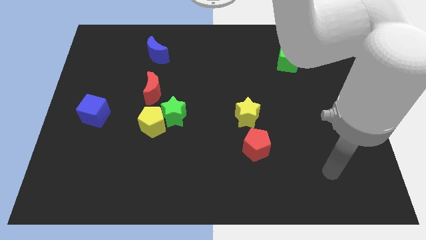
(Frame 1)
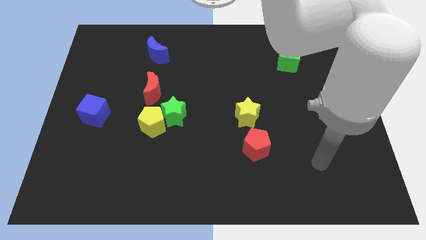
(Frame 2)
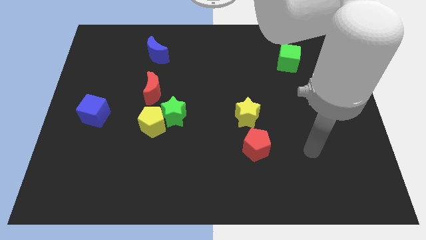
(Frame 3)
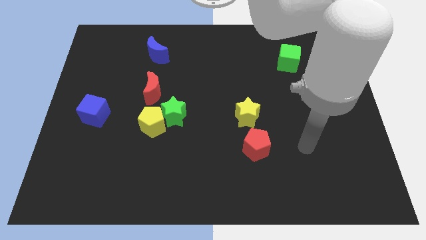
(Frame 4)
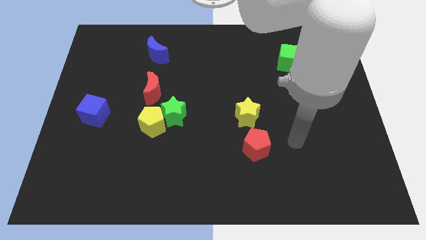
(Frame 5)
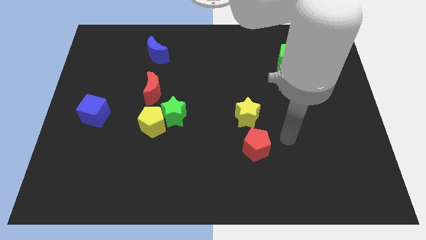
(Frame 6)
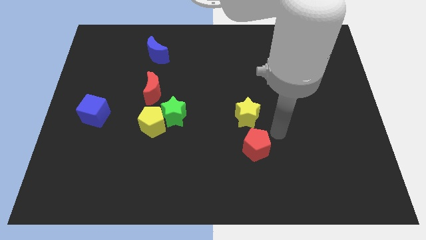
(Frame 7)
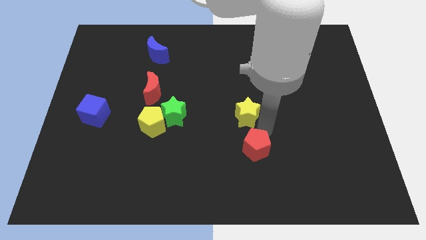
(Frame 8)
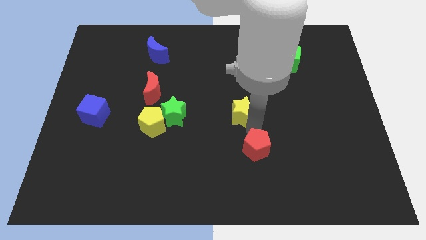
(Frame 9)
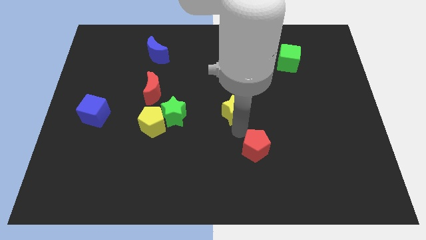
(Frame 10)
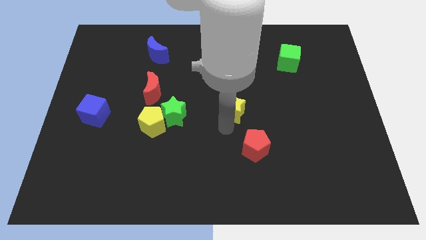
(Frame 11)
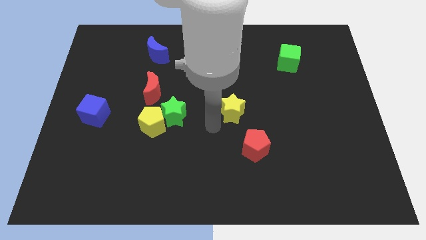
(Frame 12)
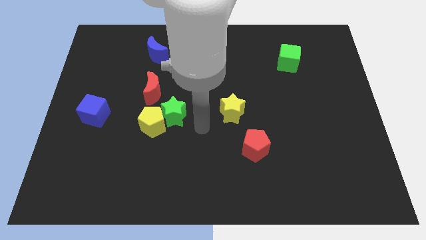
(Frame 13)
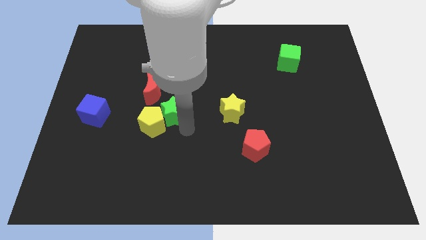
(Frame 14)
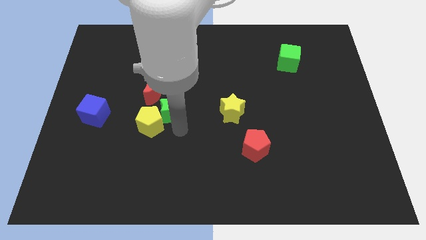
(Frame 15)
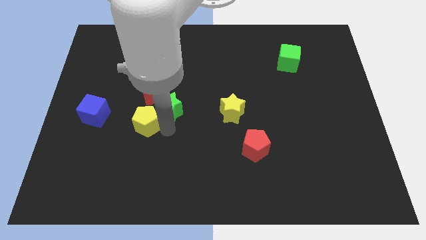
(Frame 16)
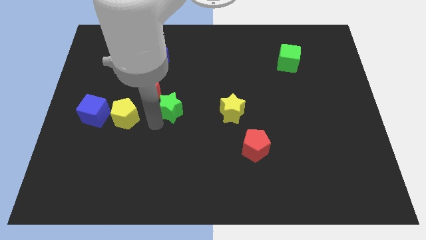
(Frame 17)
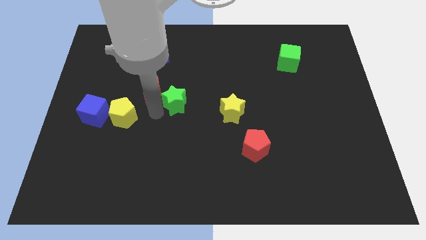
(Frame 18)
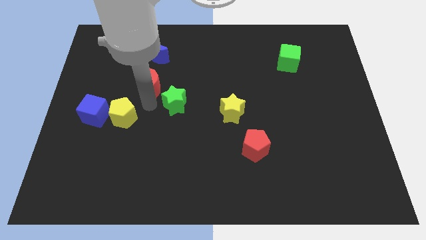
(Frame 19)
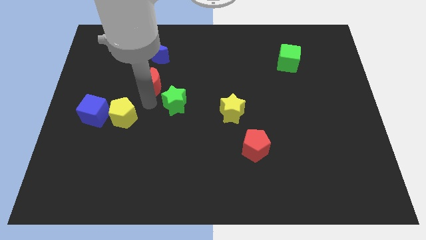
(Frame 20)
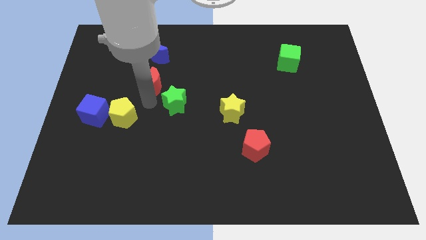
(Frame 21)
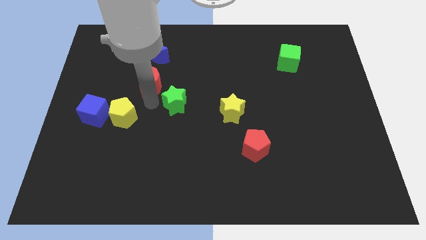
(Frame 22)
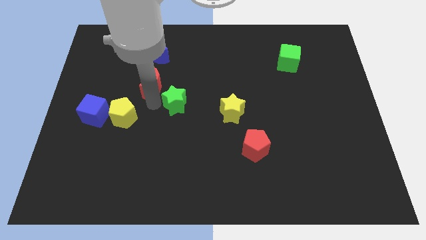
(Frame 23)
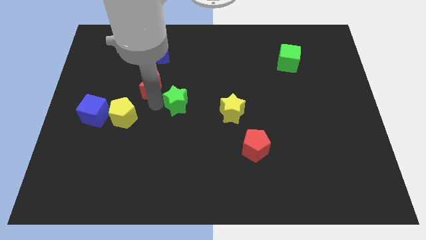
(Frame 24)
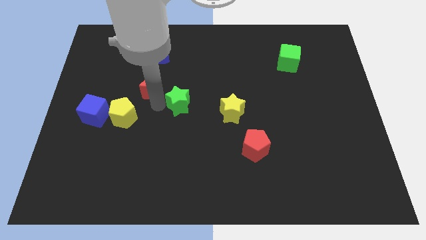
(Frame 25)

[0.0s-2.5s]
pull the green star apart from the yellow pentagon and red moon

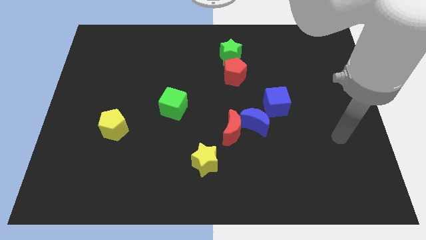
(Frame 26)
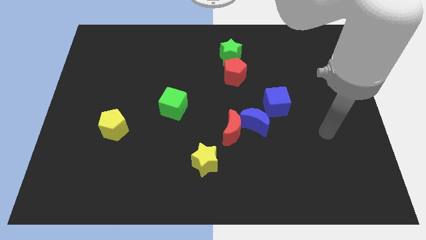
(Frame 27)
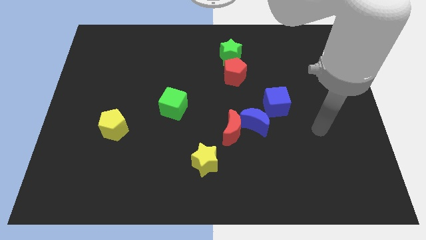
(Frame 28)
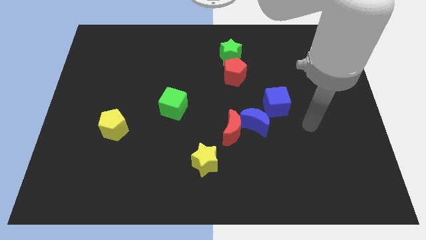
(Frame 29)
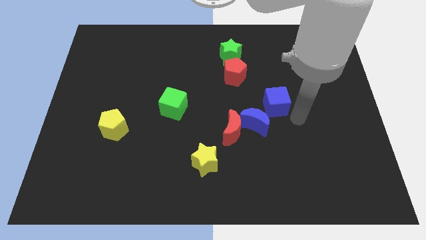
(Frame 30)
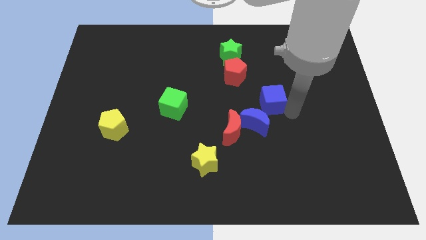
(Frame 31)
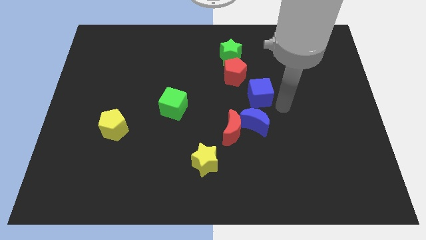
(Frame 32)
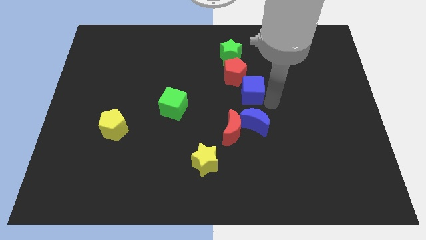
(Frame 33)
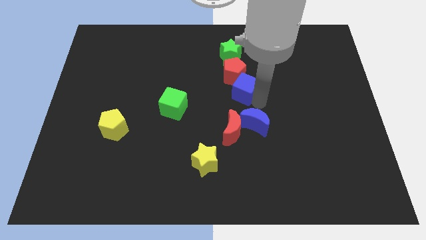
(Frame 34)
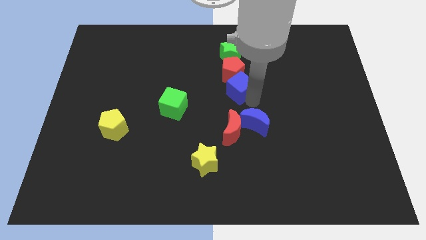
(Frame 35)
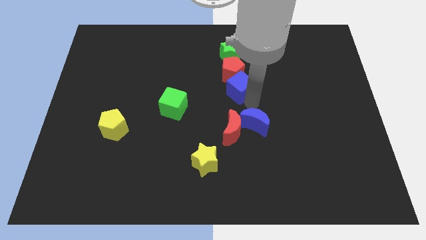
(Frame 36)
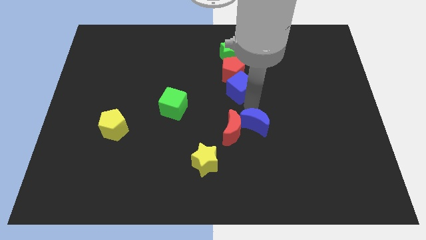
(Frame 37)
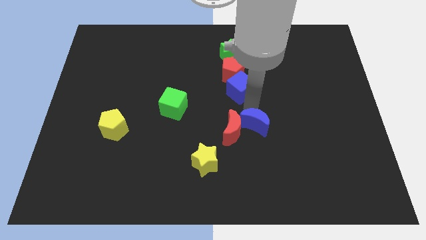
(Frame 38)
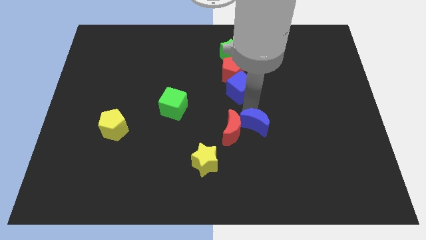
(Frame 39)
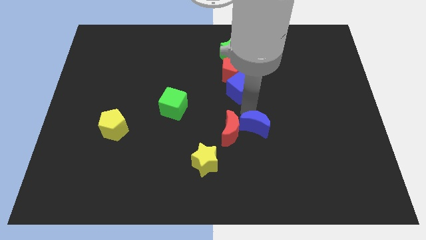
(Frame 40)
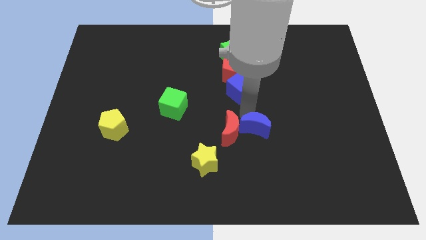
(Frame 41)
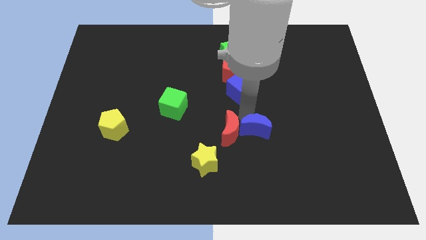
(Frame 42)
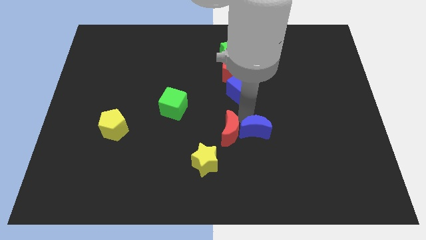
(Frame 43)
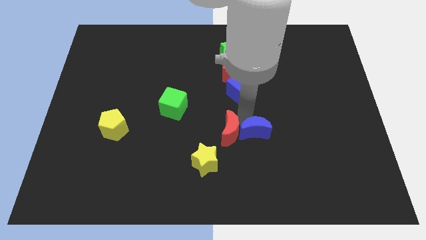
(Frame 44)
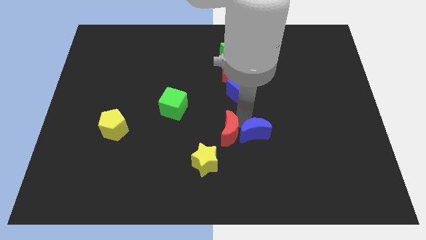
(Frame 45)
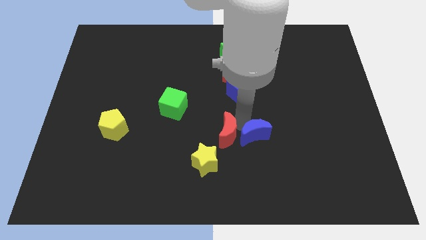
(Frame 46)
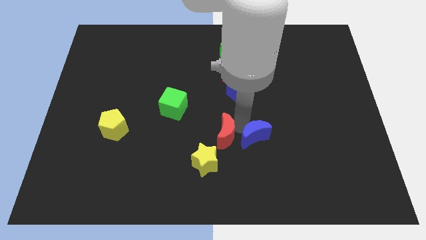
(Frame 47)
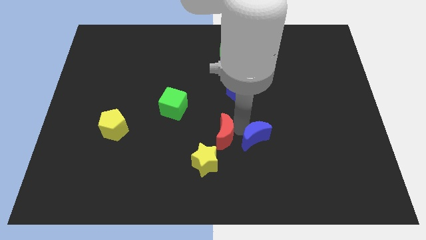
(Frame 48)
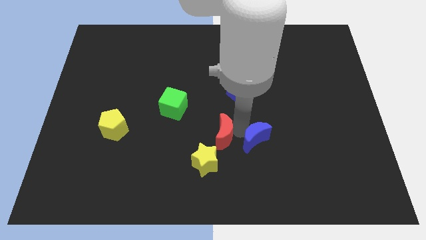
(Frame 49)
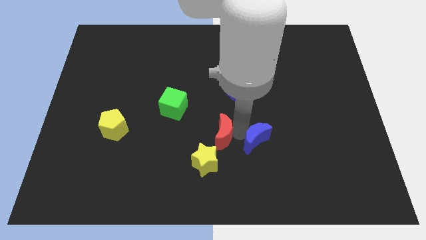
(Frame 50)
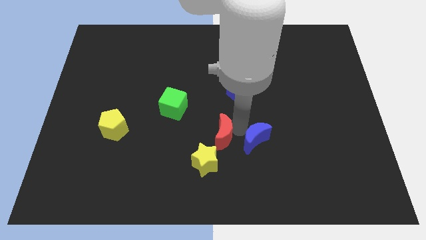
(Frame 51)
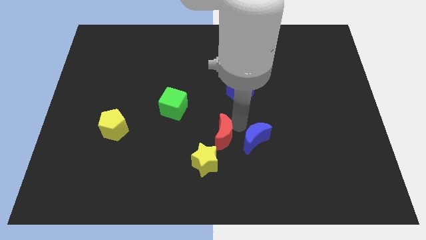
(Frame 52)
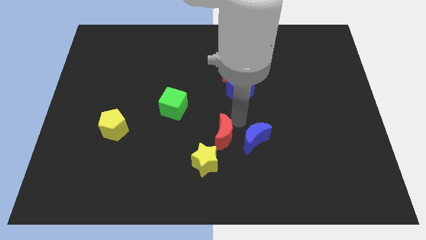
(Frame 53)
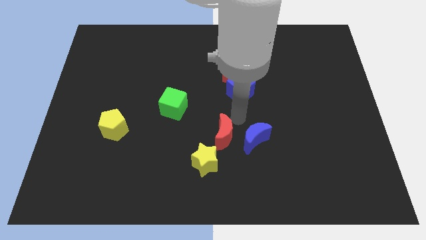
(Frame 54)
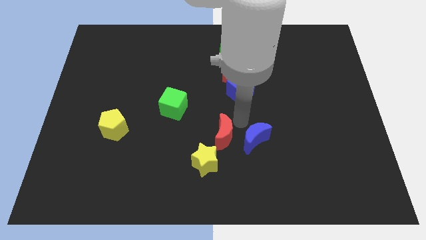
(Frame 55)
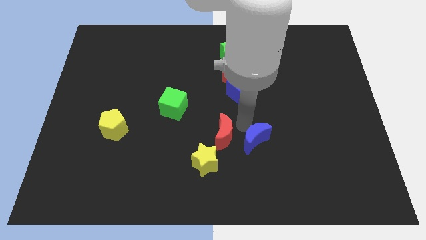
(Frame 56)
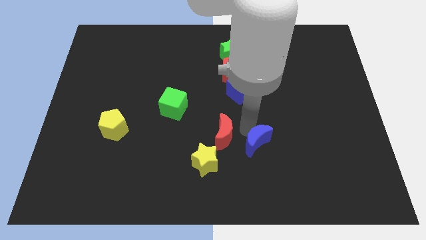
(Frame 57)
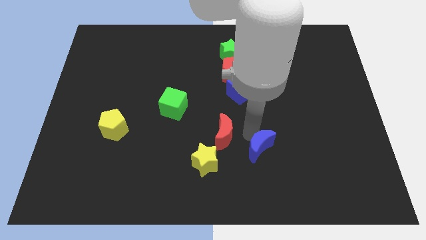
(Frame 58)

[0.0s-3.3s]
pull the blue moon apart from the red moon and blue cube

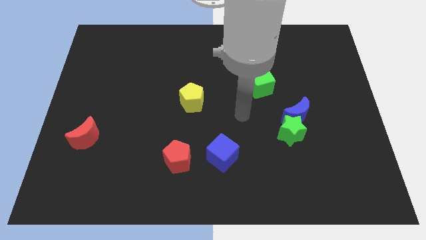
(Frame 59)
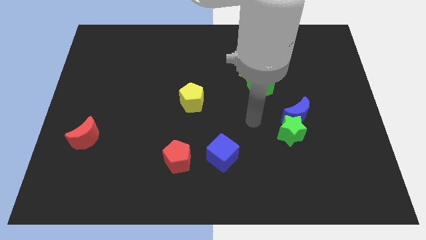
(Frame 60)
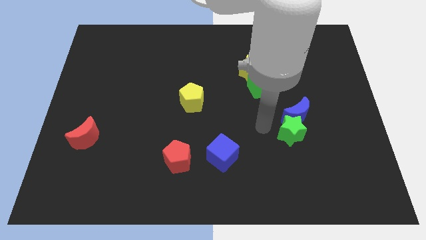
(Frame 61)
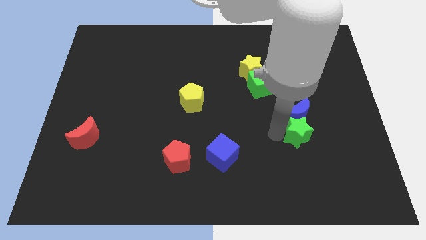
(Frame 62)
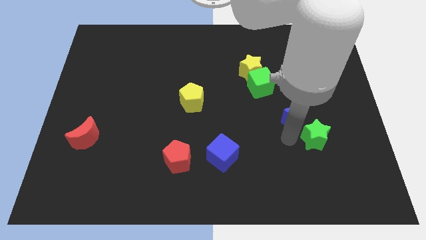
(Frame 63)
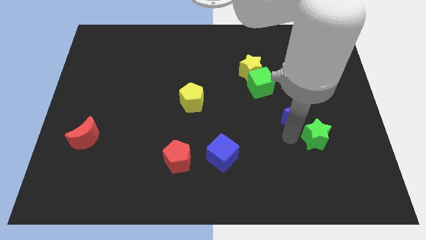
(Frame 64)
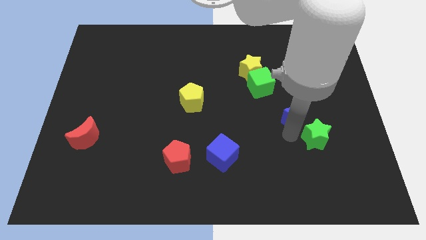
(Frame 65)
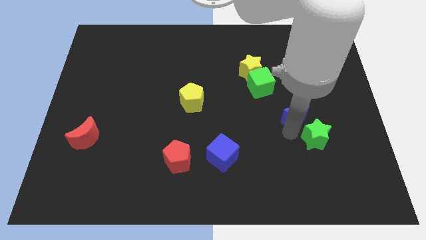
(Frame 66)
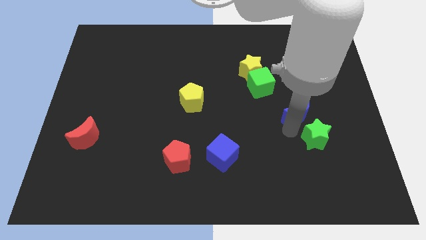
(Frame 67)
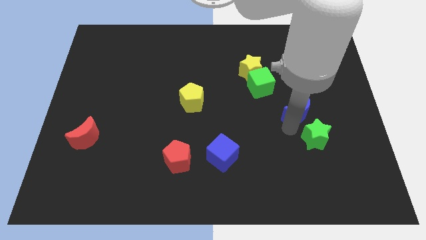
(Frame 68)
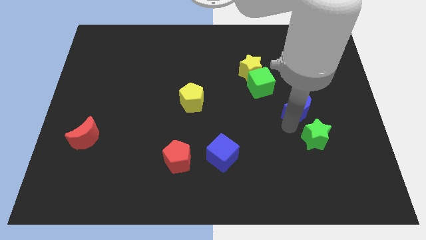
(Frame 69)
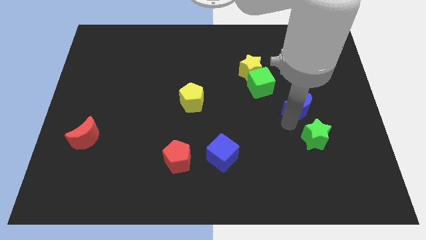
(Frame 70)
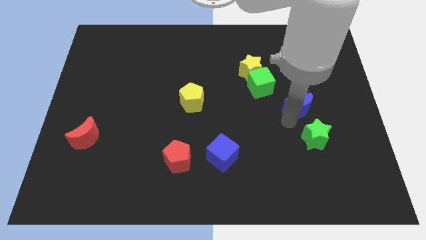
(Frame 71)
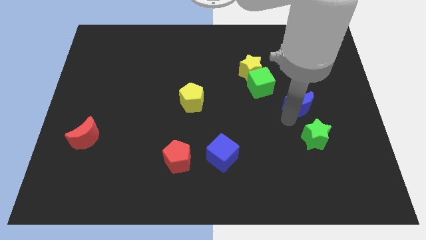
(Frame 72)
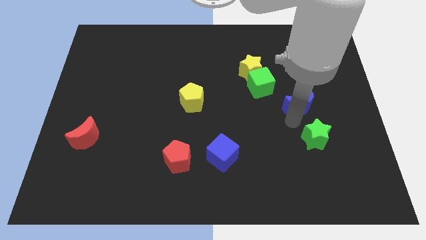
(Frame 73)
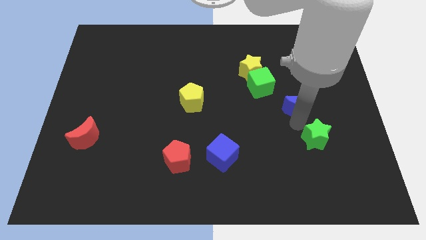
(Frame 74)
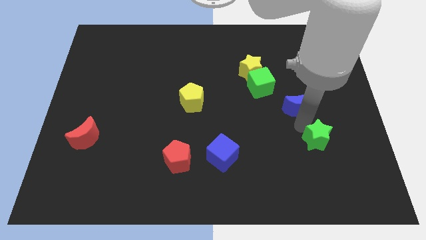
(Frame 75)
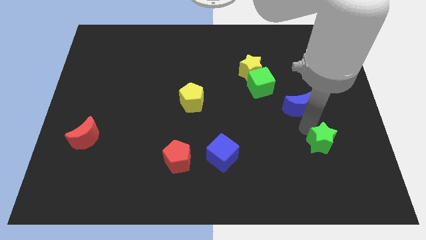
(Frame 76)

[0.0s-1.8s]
move the blue moon away from the green star

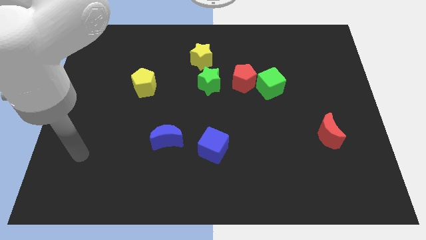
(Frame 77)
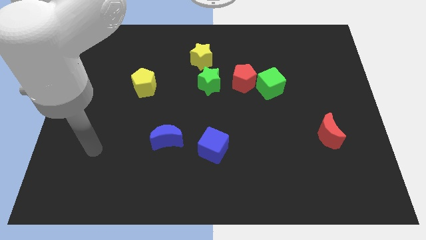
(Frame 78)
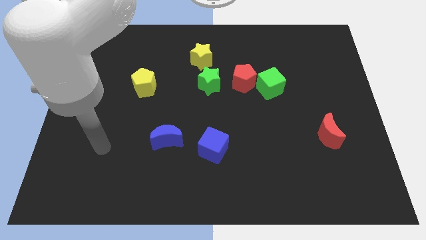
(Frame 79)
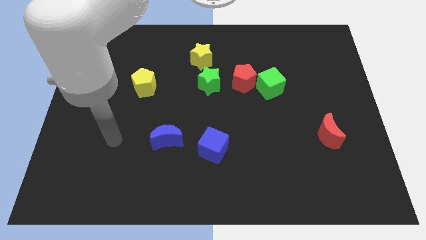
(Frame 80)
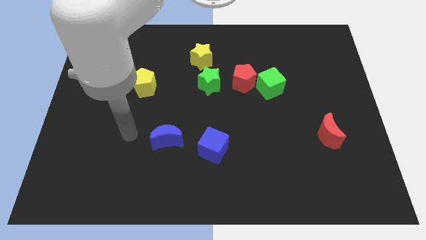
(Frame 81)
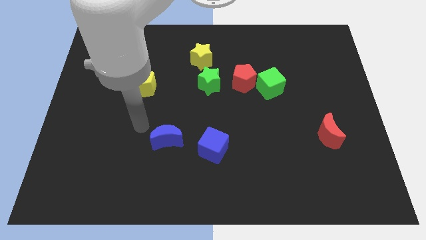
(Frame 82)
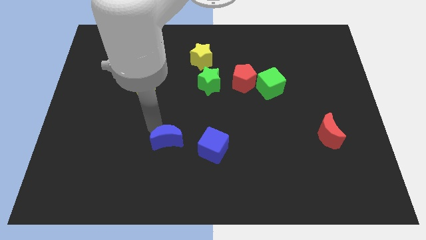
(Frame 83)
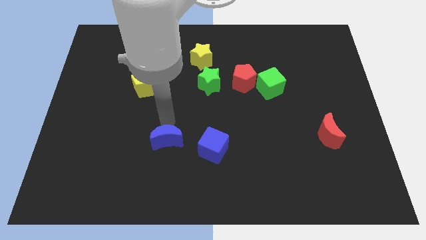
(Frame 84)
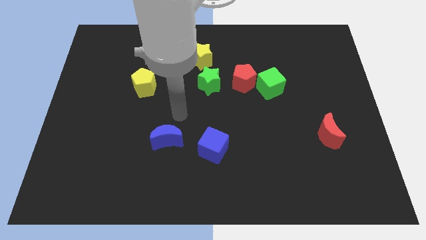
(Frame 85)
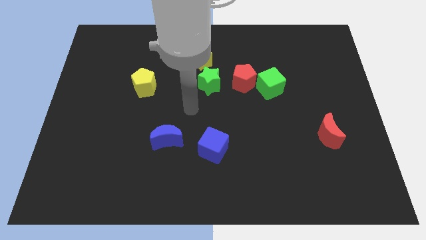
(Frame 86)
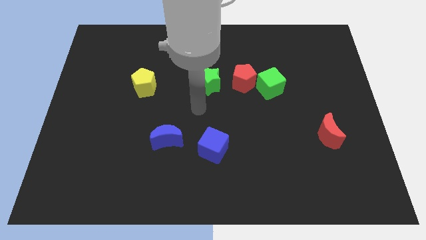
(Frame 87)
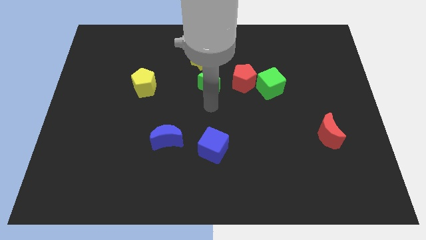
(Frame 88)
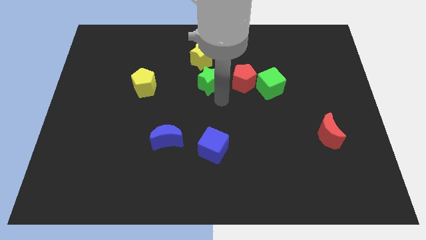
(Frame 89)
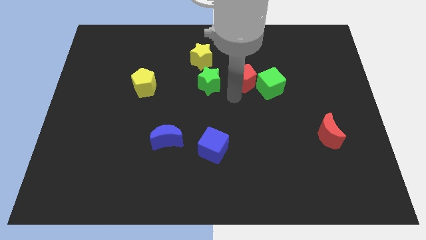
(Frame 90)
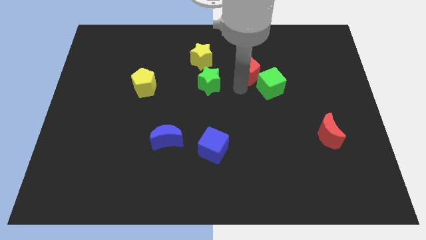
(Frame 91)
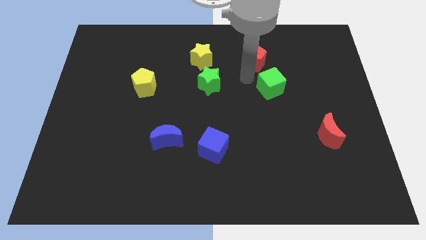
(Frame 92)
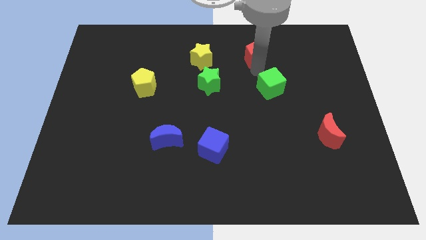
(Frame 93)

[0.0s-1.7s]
separate the green cube from the red pentagon
